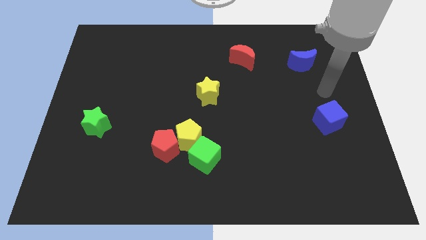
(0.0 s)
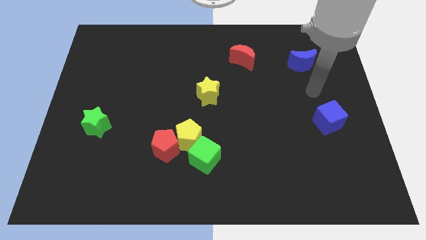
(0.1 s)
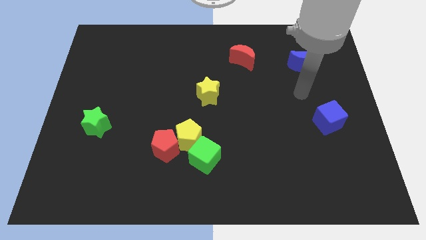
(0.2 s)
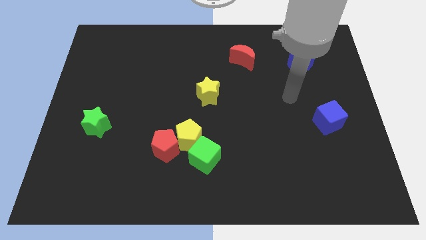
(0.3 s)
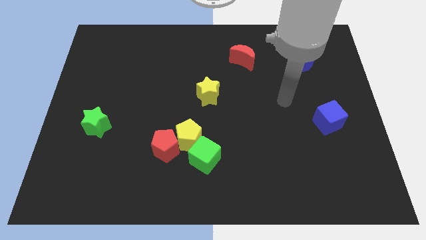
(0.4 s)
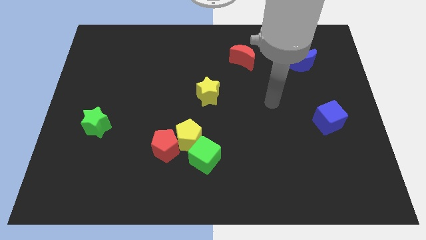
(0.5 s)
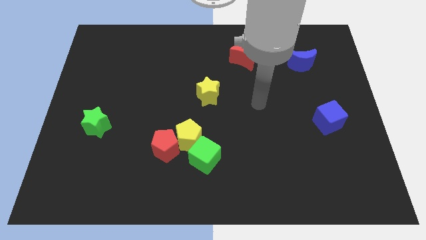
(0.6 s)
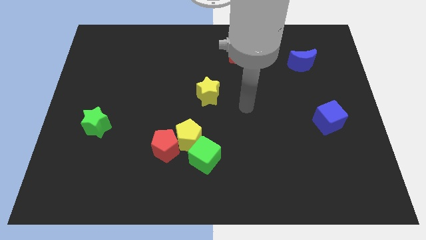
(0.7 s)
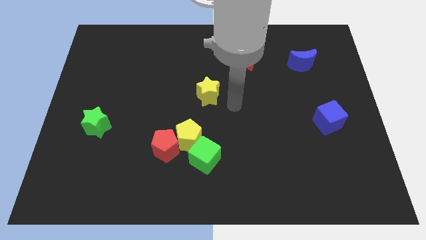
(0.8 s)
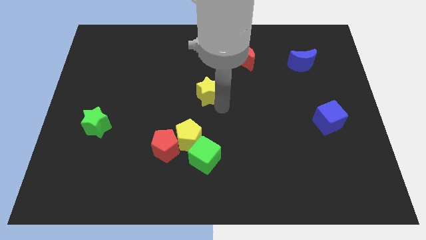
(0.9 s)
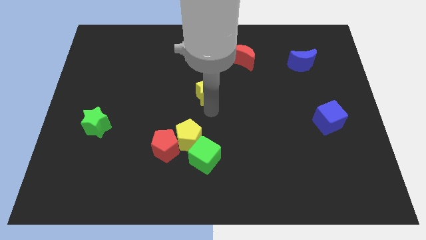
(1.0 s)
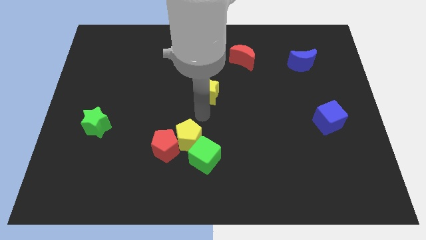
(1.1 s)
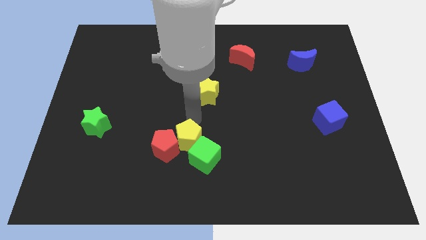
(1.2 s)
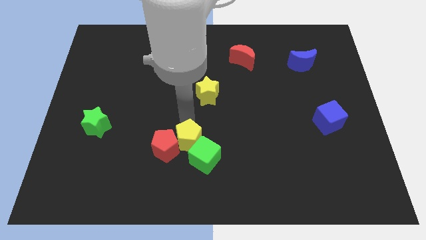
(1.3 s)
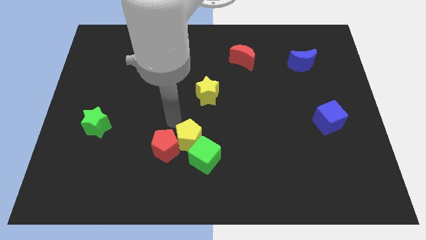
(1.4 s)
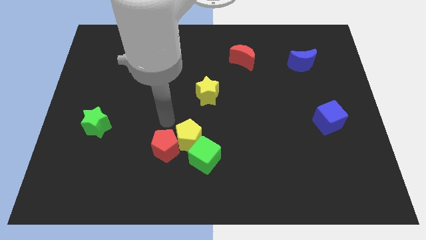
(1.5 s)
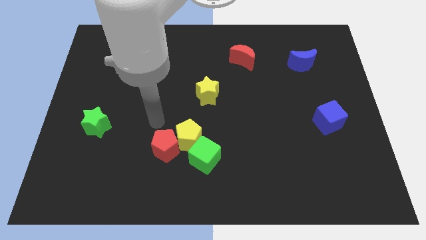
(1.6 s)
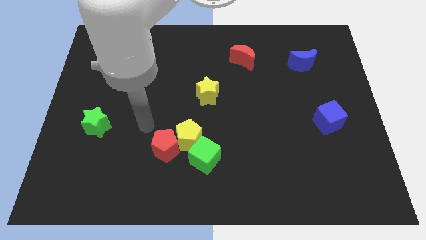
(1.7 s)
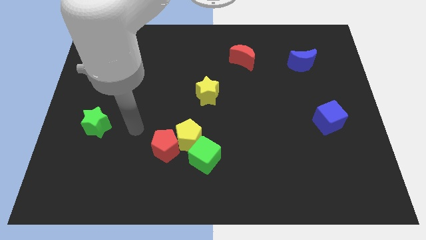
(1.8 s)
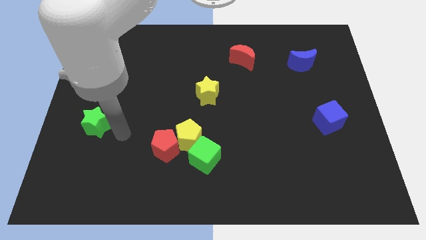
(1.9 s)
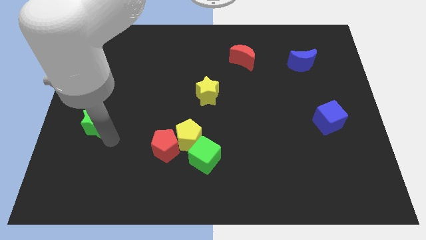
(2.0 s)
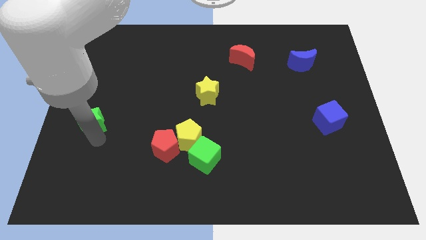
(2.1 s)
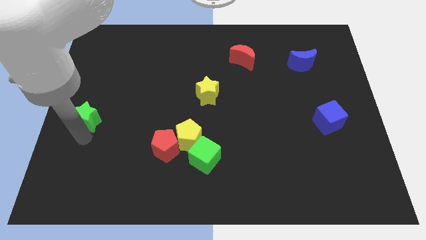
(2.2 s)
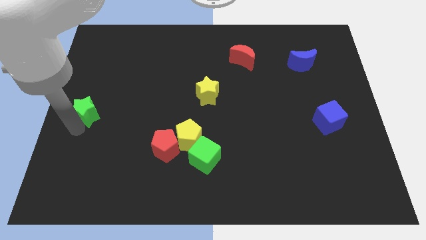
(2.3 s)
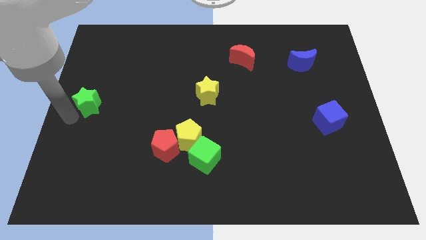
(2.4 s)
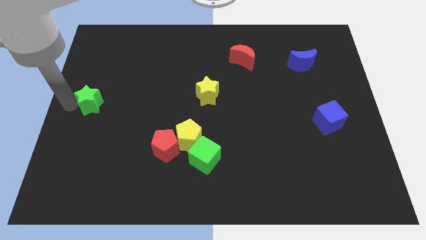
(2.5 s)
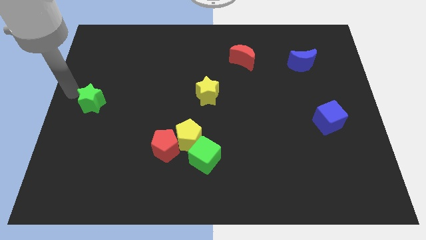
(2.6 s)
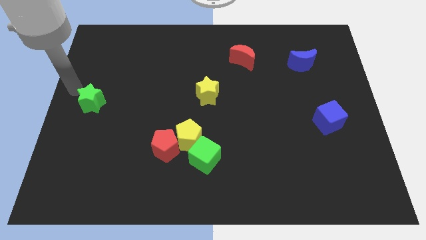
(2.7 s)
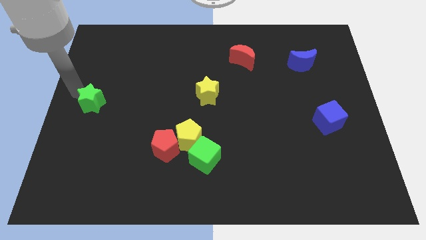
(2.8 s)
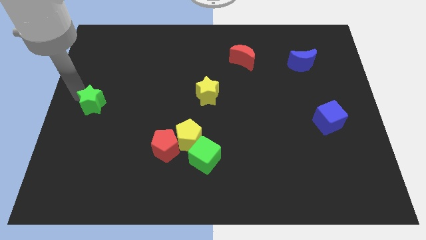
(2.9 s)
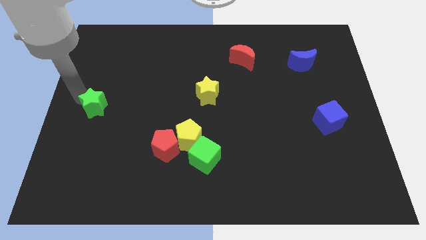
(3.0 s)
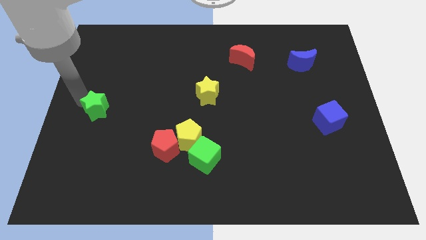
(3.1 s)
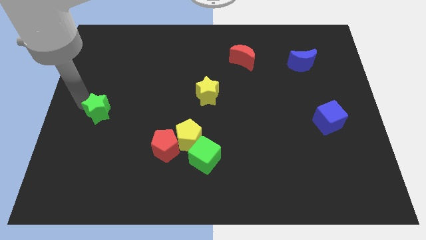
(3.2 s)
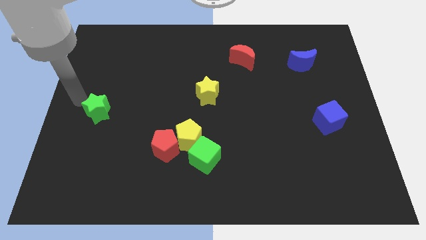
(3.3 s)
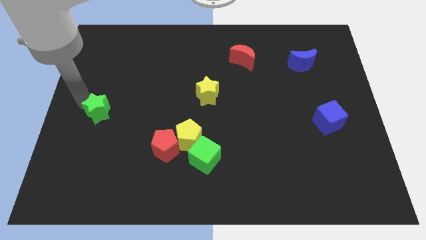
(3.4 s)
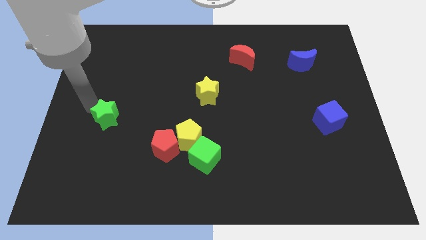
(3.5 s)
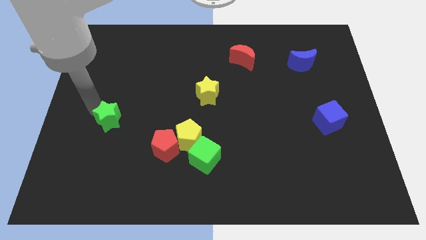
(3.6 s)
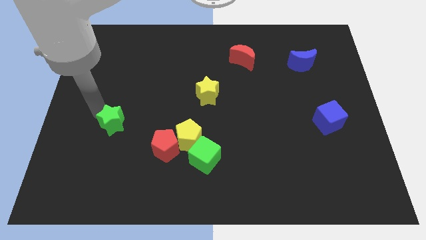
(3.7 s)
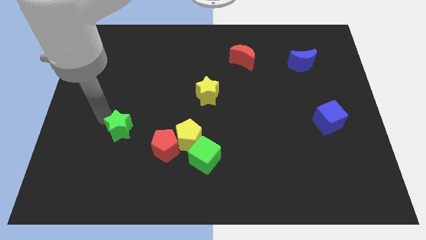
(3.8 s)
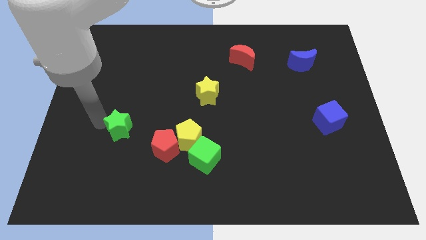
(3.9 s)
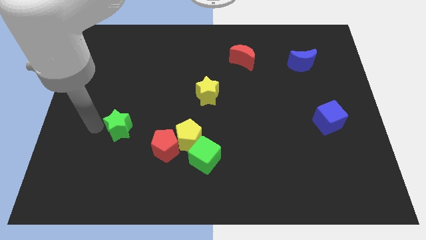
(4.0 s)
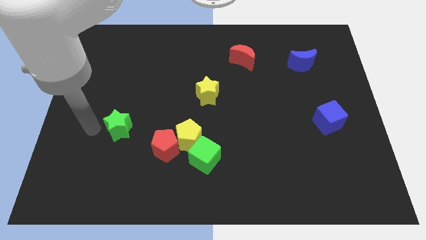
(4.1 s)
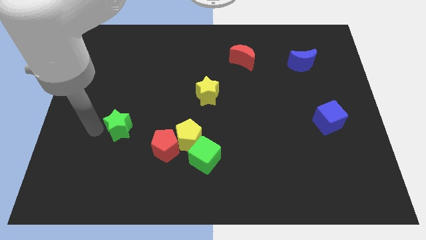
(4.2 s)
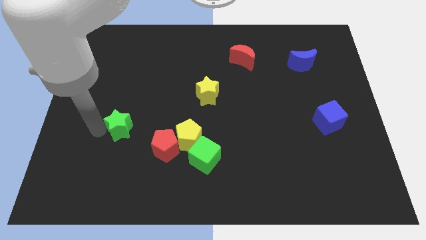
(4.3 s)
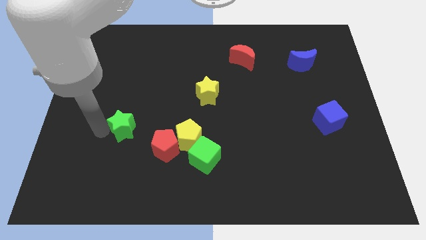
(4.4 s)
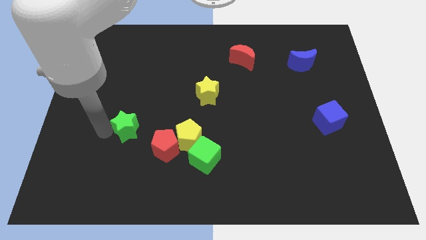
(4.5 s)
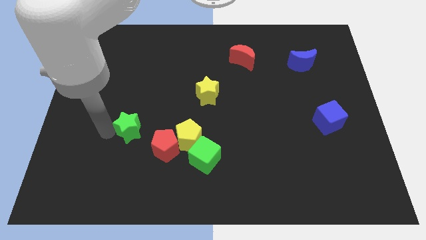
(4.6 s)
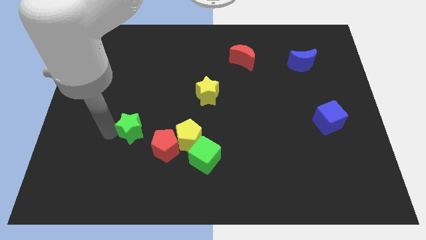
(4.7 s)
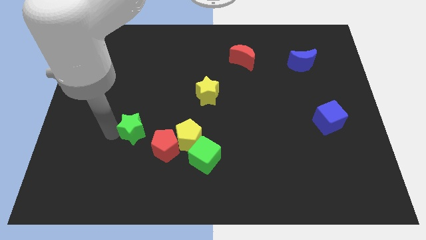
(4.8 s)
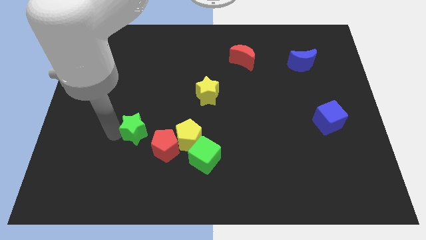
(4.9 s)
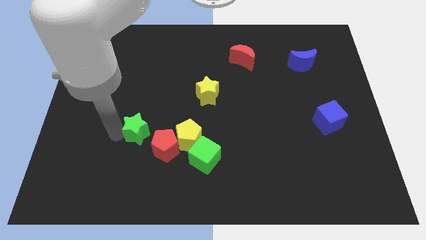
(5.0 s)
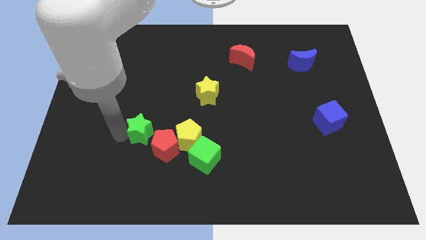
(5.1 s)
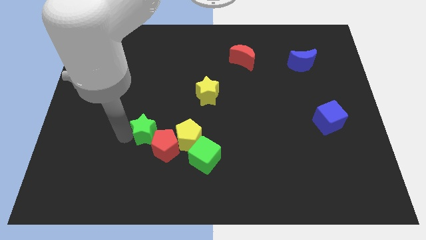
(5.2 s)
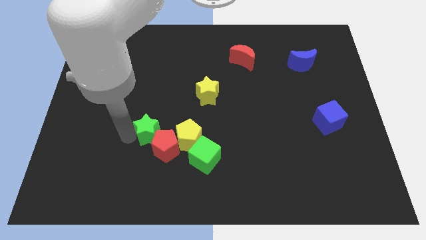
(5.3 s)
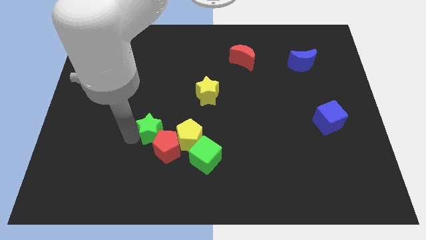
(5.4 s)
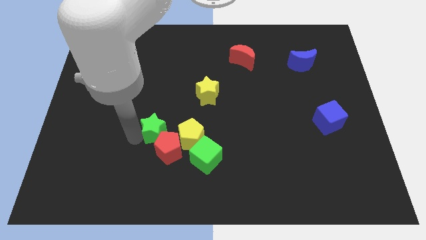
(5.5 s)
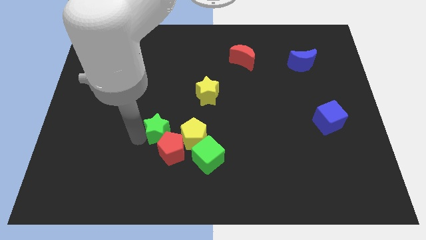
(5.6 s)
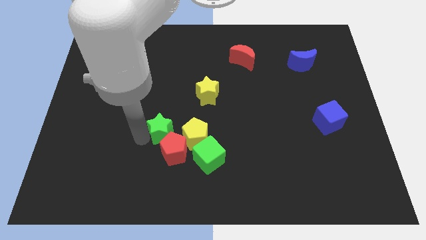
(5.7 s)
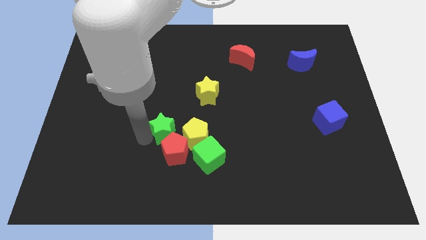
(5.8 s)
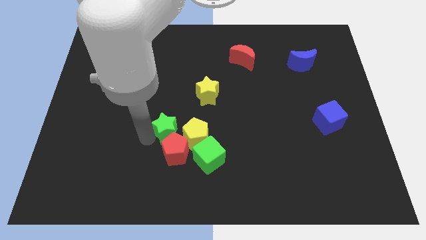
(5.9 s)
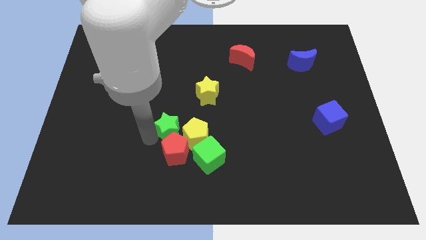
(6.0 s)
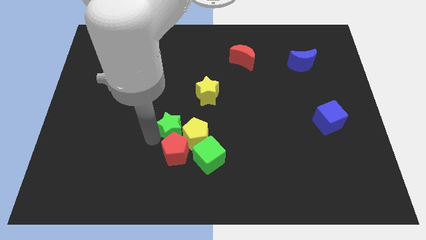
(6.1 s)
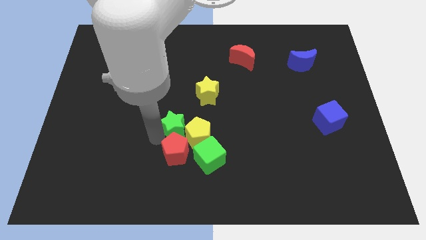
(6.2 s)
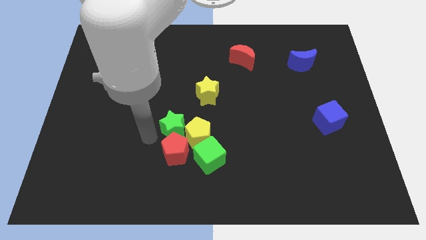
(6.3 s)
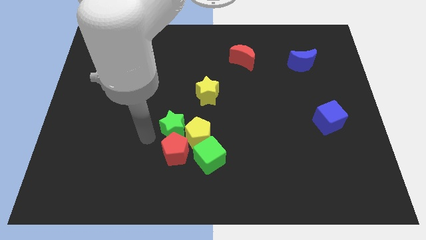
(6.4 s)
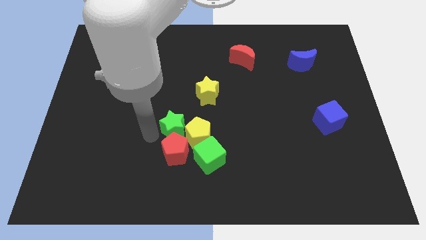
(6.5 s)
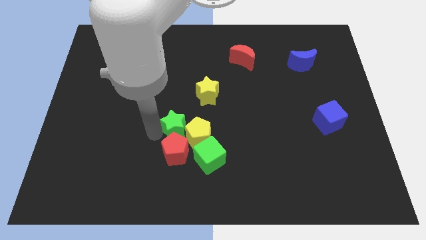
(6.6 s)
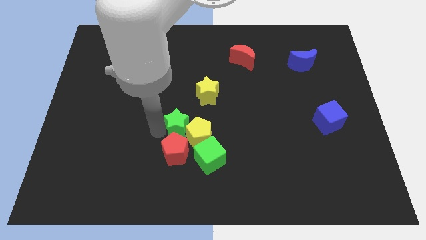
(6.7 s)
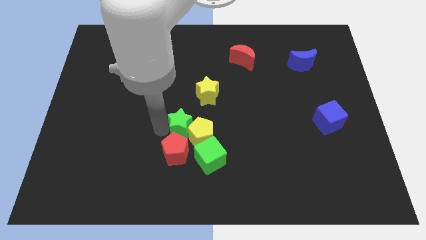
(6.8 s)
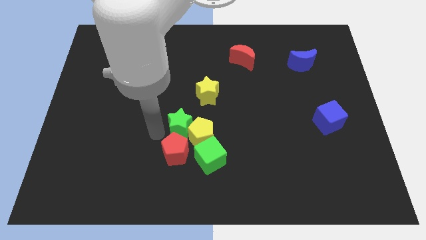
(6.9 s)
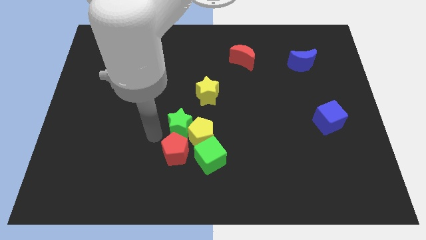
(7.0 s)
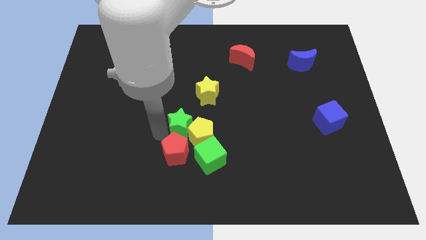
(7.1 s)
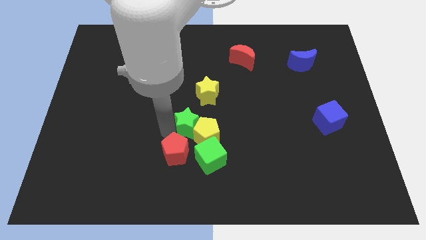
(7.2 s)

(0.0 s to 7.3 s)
put the green star to the top of the green cube

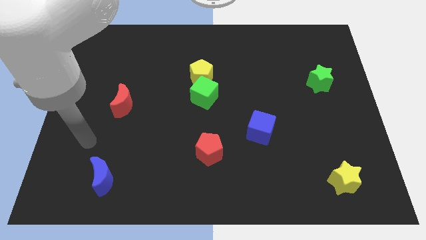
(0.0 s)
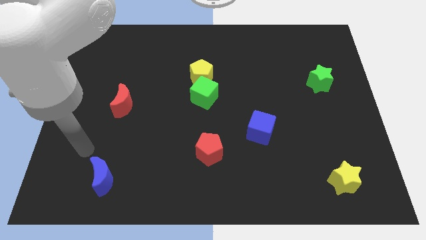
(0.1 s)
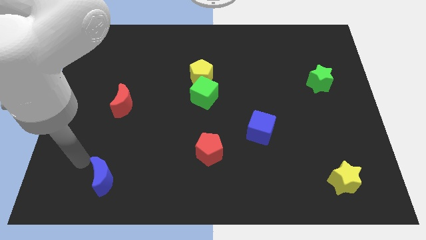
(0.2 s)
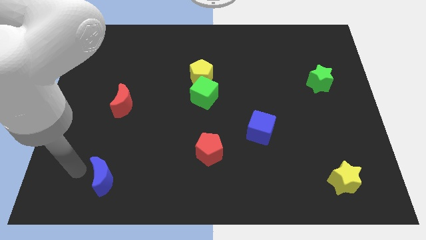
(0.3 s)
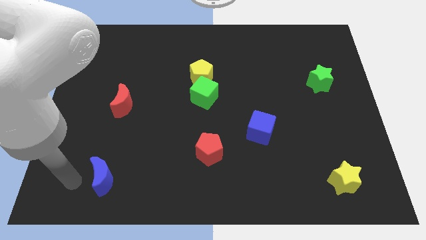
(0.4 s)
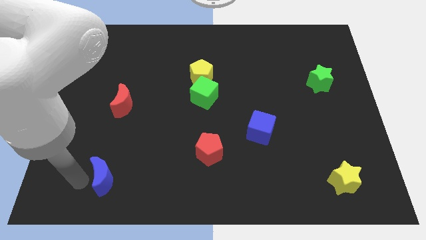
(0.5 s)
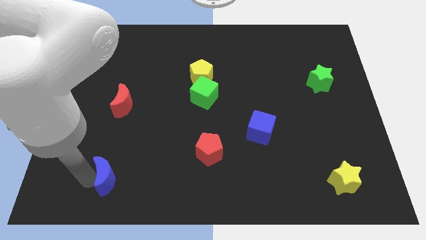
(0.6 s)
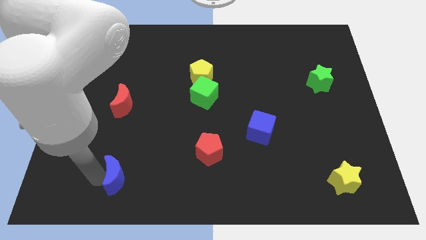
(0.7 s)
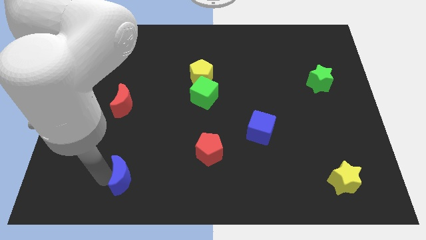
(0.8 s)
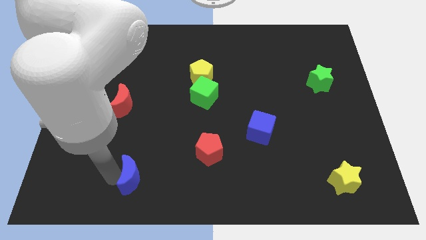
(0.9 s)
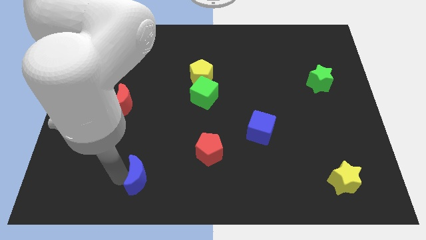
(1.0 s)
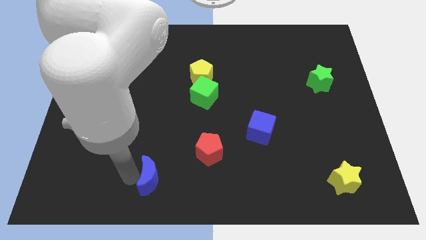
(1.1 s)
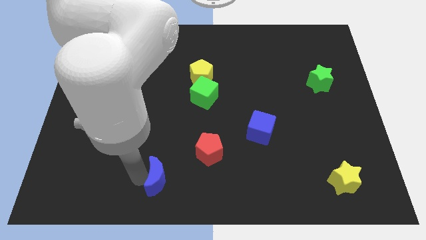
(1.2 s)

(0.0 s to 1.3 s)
move the blue moon to the bottom left of the red pentagon
